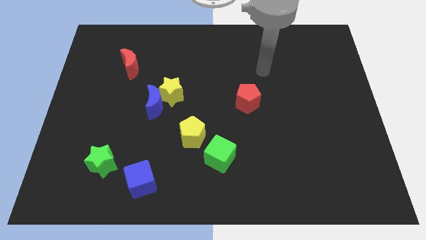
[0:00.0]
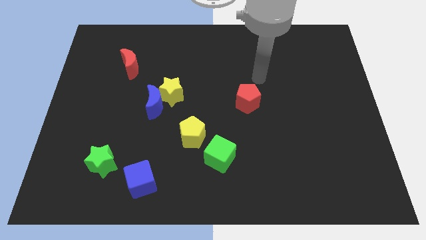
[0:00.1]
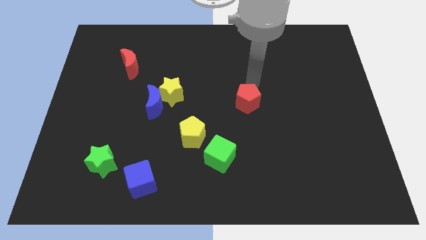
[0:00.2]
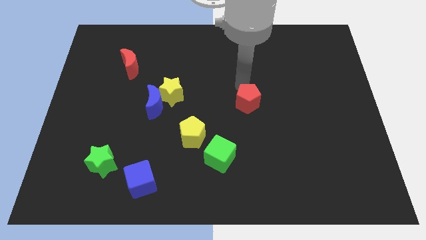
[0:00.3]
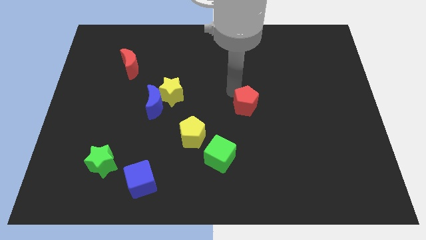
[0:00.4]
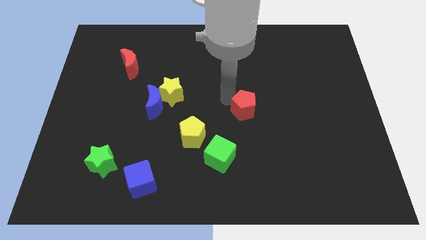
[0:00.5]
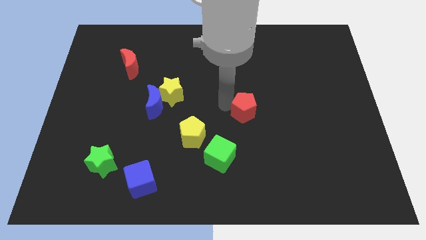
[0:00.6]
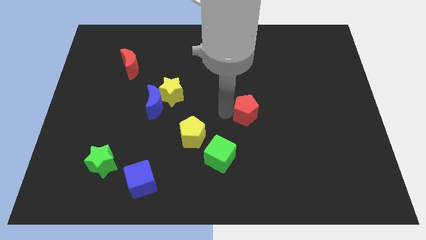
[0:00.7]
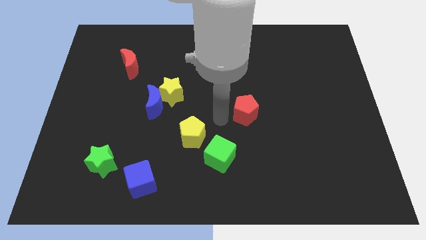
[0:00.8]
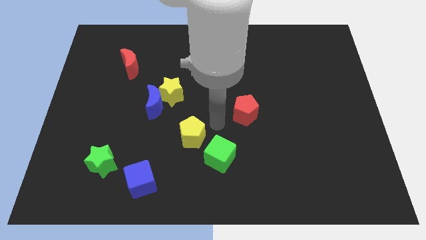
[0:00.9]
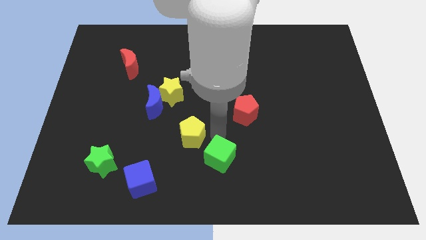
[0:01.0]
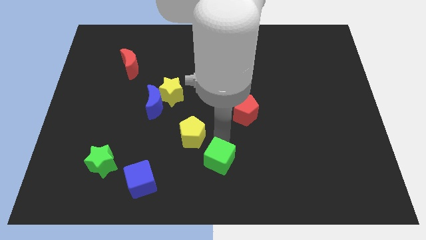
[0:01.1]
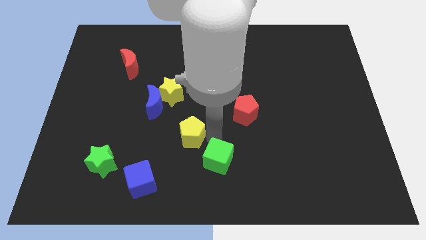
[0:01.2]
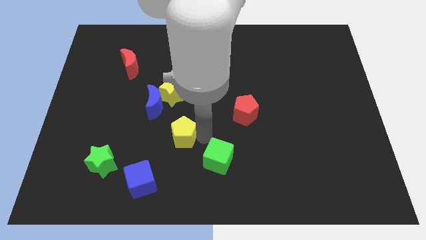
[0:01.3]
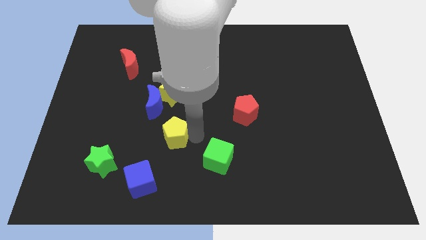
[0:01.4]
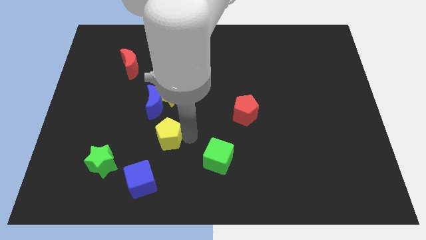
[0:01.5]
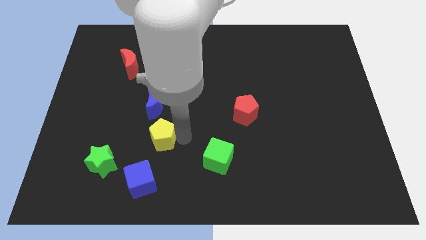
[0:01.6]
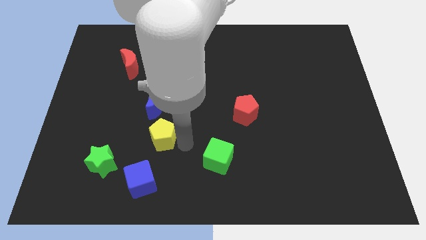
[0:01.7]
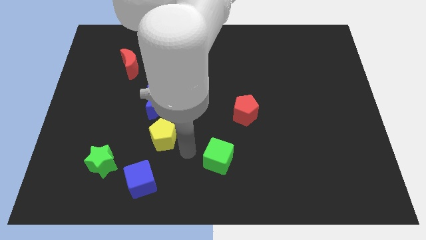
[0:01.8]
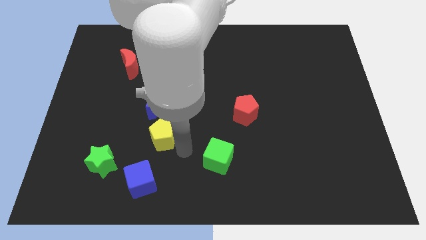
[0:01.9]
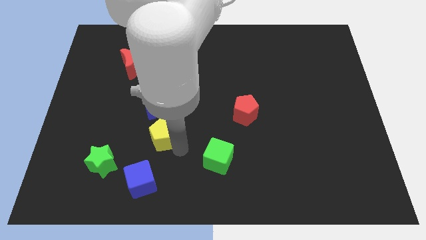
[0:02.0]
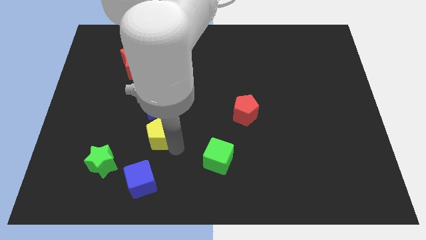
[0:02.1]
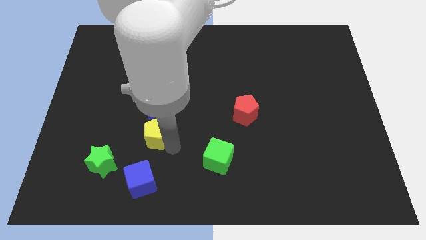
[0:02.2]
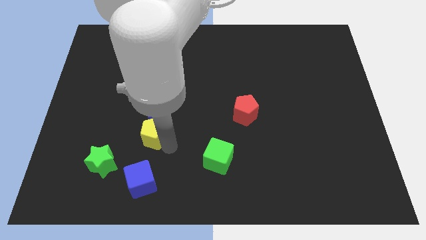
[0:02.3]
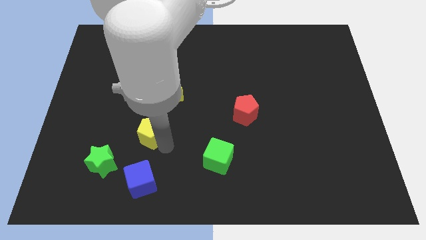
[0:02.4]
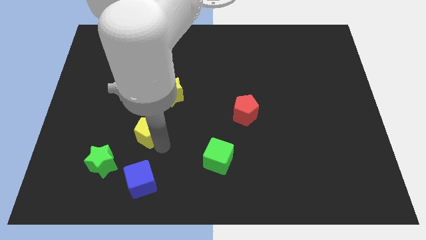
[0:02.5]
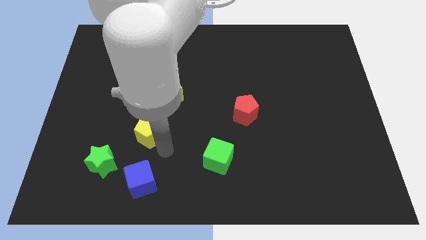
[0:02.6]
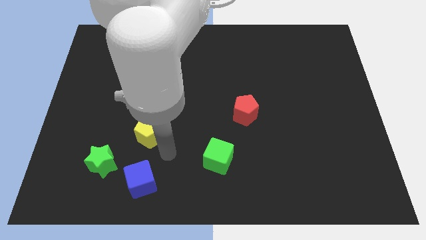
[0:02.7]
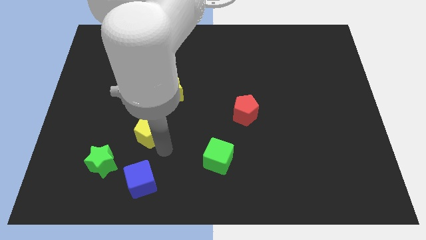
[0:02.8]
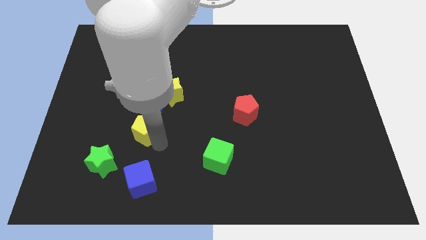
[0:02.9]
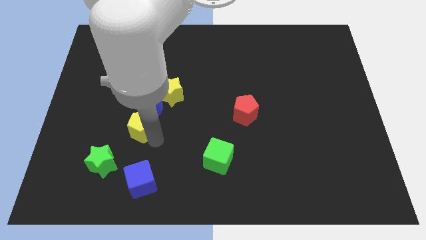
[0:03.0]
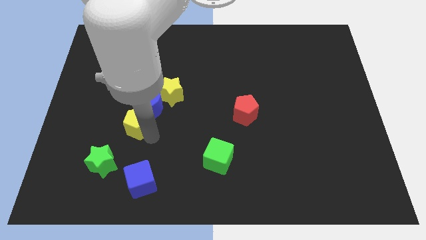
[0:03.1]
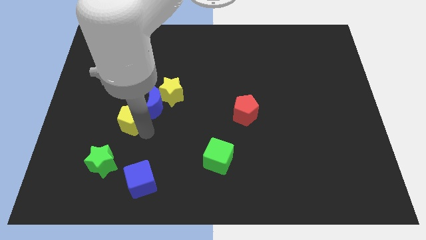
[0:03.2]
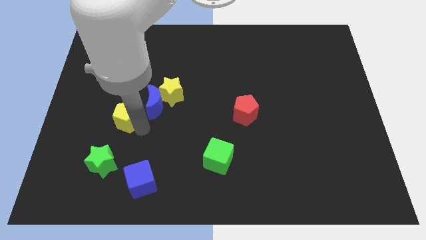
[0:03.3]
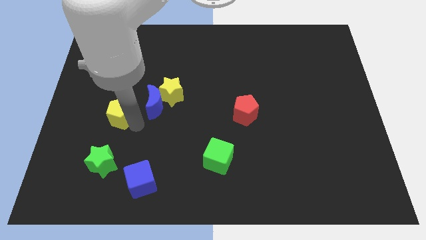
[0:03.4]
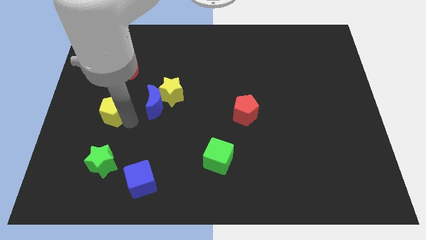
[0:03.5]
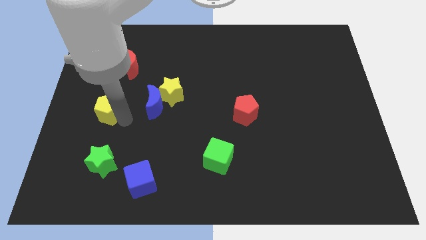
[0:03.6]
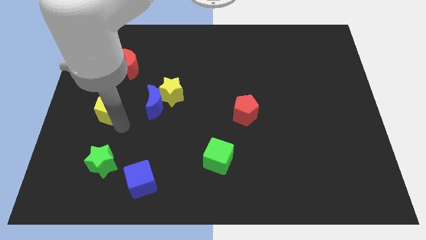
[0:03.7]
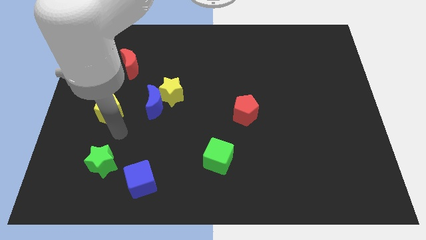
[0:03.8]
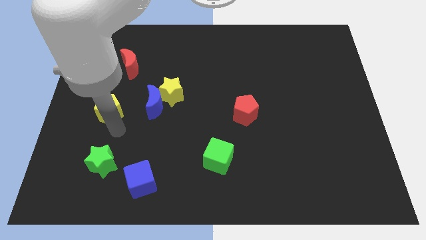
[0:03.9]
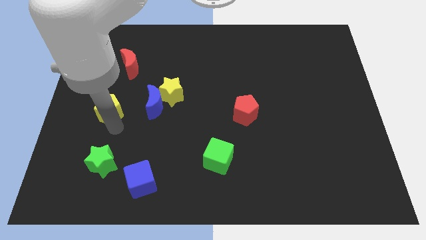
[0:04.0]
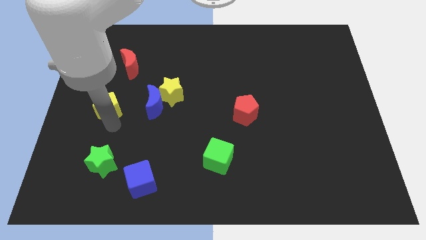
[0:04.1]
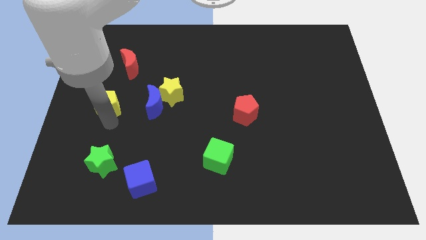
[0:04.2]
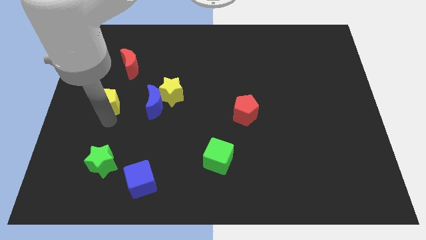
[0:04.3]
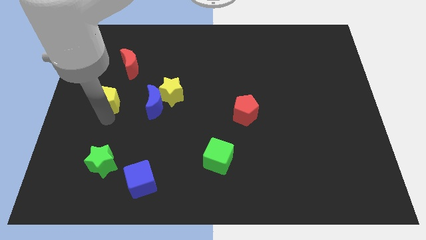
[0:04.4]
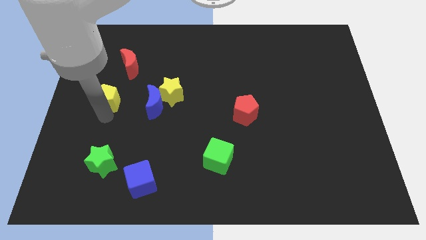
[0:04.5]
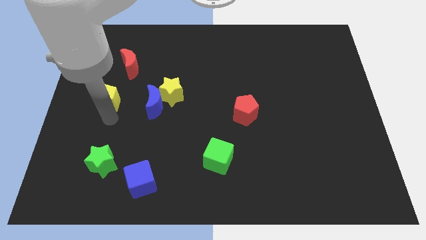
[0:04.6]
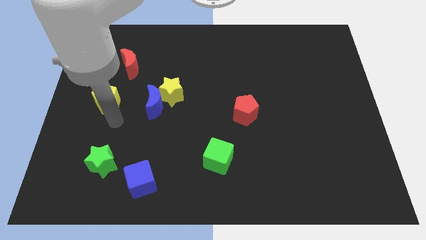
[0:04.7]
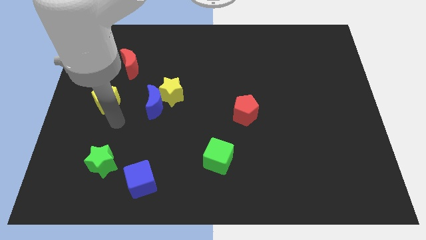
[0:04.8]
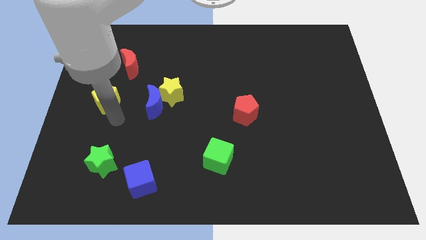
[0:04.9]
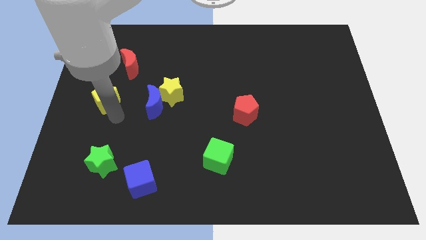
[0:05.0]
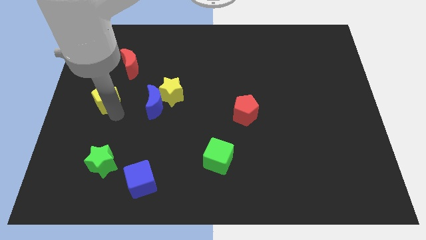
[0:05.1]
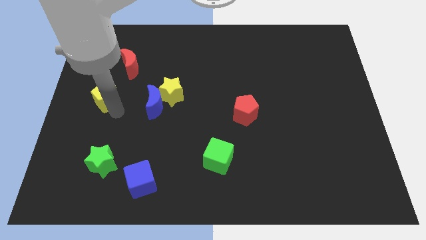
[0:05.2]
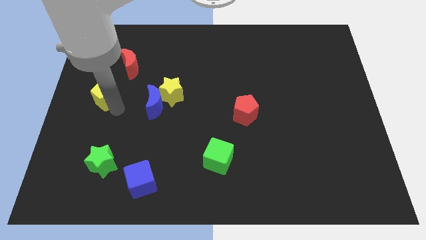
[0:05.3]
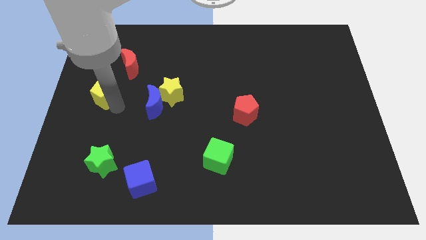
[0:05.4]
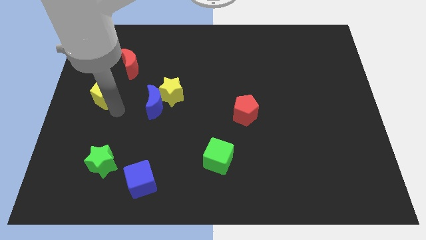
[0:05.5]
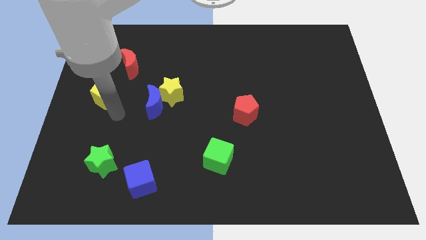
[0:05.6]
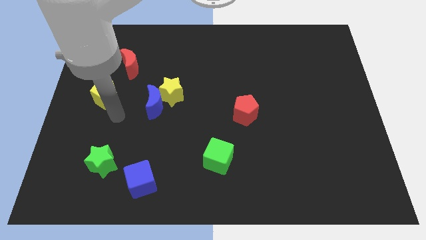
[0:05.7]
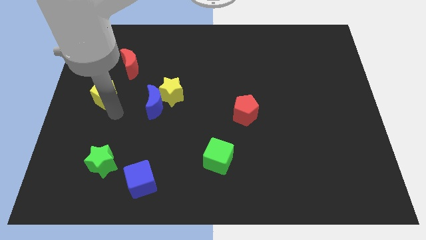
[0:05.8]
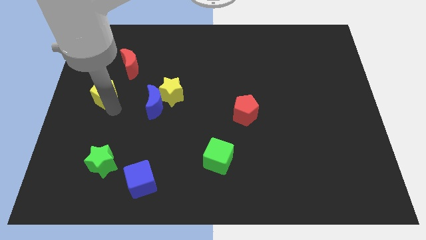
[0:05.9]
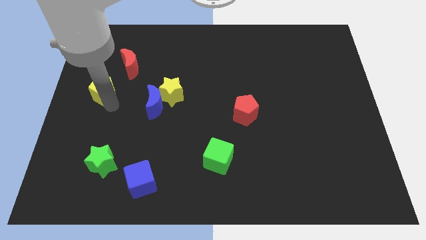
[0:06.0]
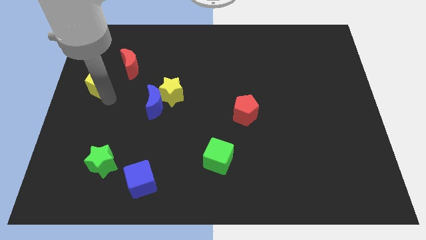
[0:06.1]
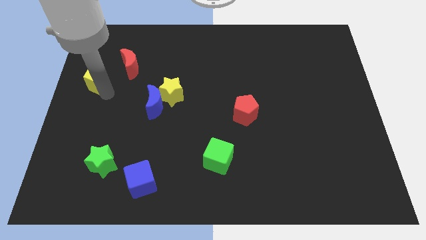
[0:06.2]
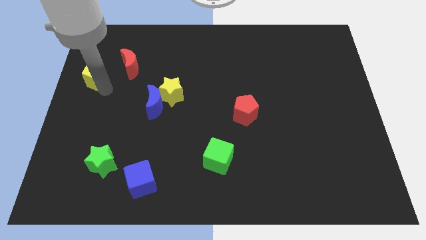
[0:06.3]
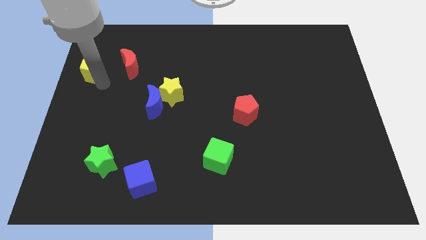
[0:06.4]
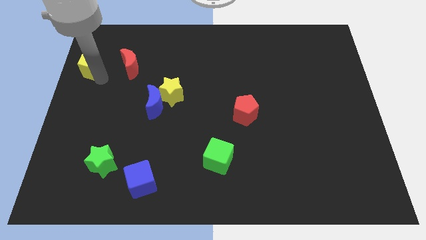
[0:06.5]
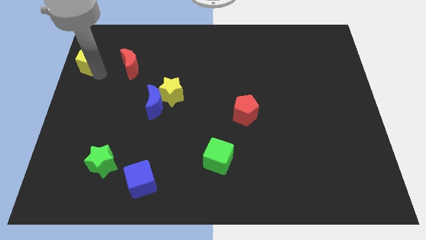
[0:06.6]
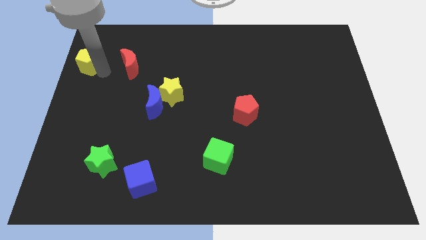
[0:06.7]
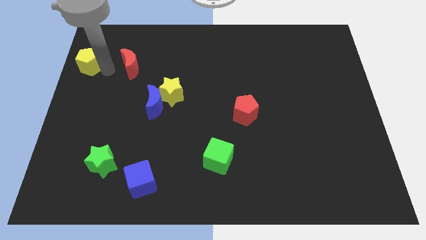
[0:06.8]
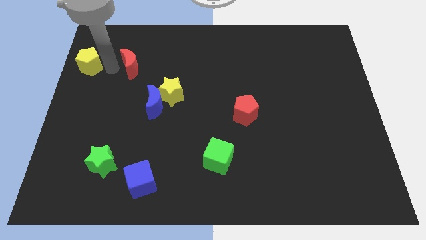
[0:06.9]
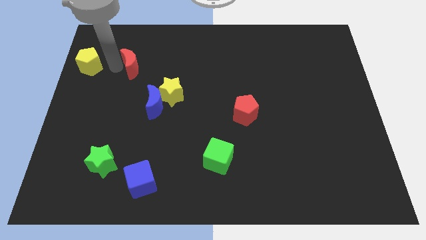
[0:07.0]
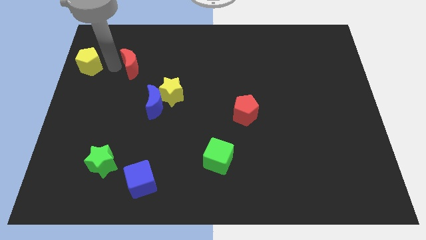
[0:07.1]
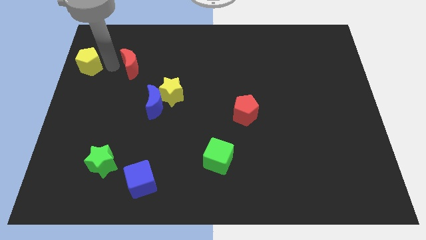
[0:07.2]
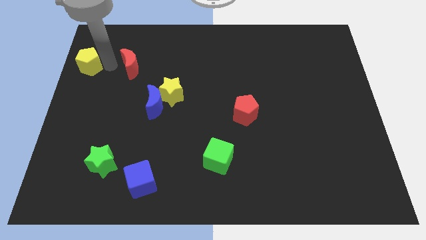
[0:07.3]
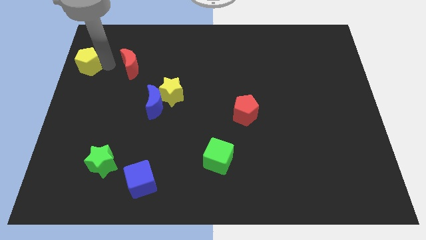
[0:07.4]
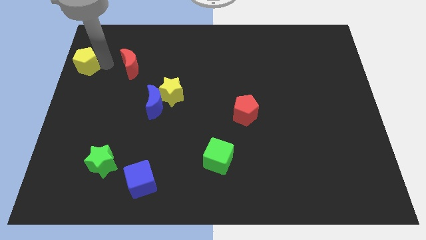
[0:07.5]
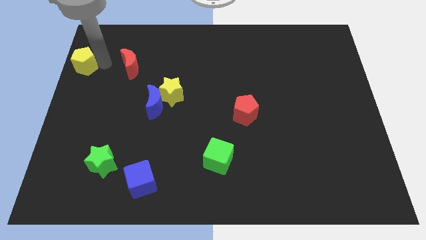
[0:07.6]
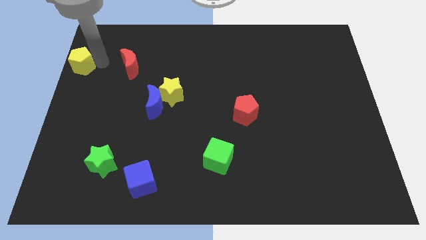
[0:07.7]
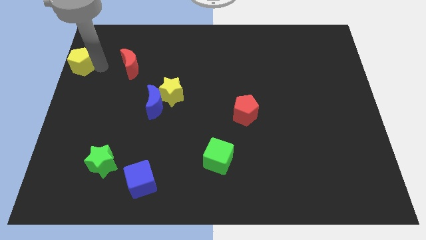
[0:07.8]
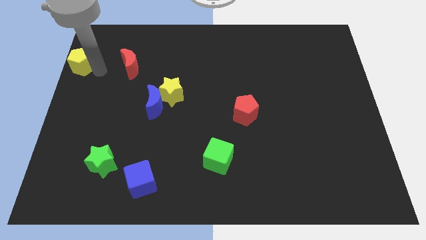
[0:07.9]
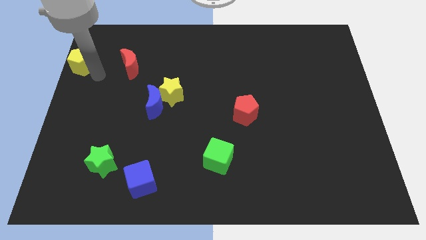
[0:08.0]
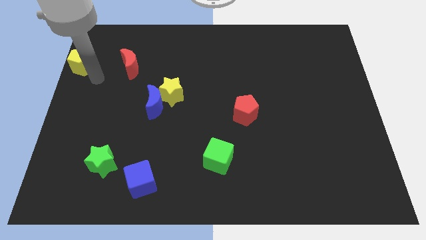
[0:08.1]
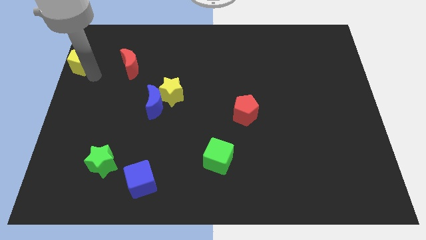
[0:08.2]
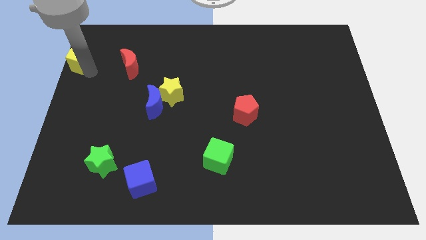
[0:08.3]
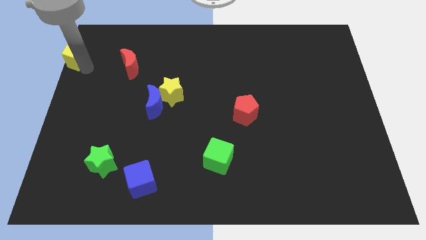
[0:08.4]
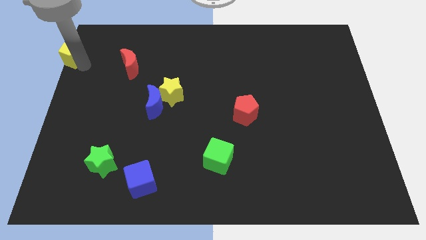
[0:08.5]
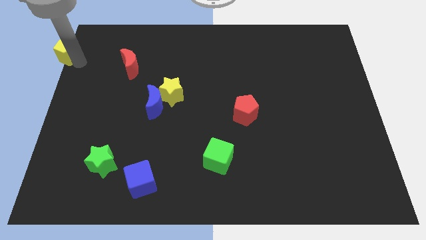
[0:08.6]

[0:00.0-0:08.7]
put the yellow pentagon to the top left corner
